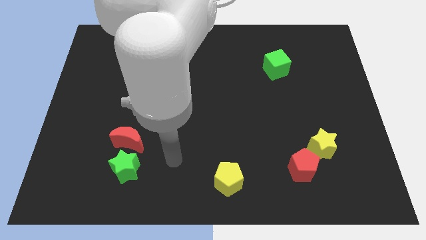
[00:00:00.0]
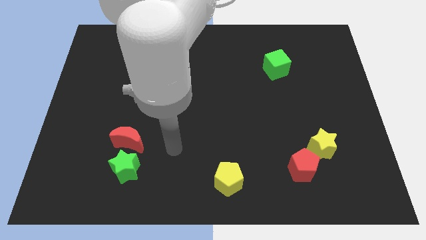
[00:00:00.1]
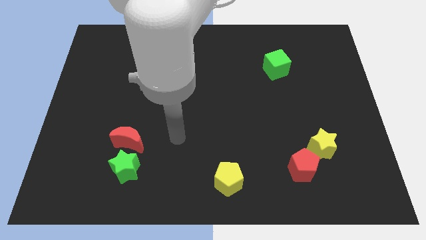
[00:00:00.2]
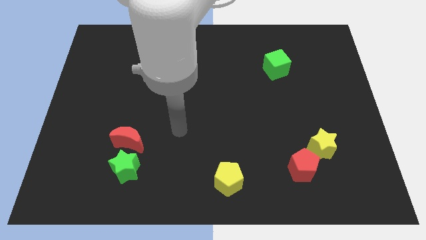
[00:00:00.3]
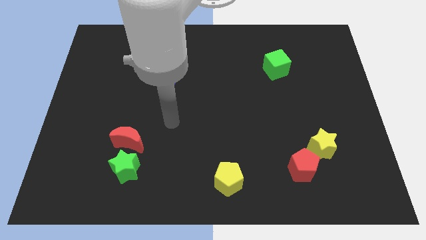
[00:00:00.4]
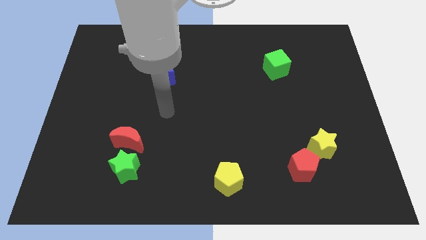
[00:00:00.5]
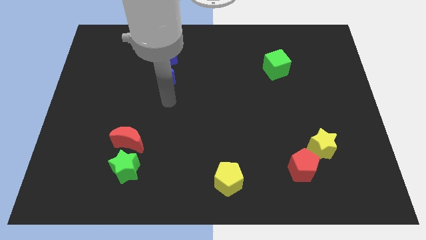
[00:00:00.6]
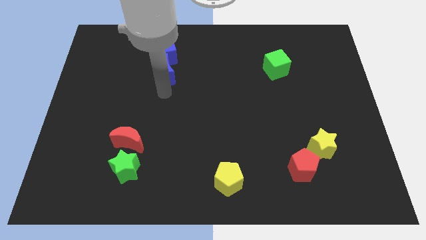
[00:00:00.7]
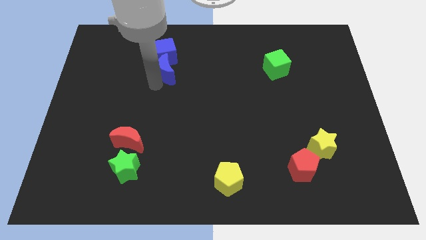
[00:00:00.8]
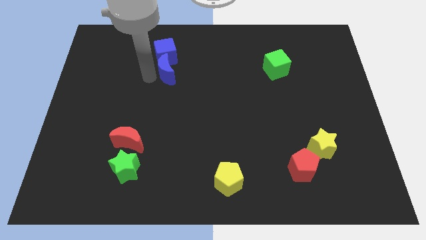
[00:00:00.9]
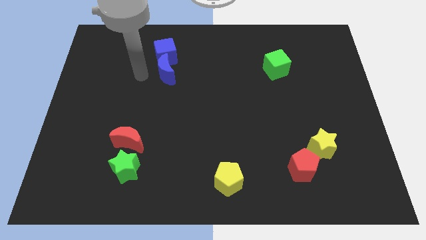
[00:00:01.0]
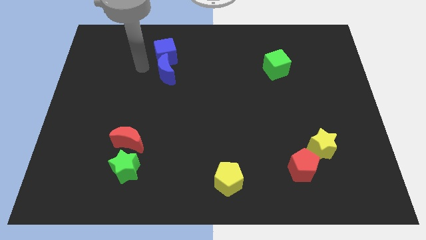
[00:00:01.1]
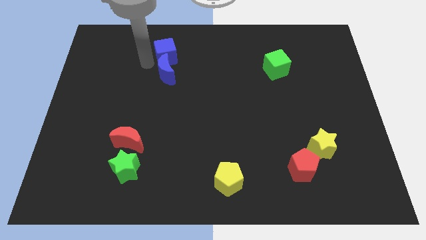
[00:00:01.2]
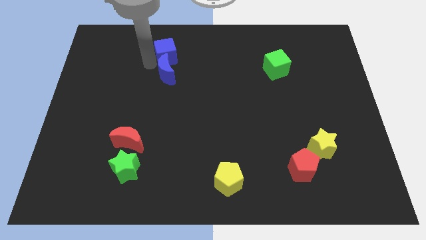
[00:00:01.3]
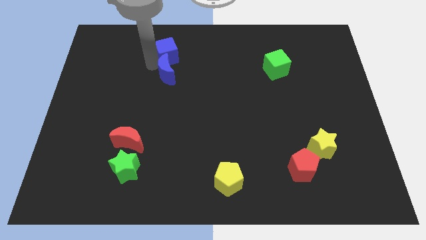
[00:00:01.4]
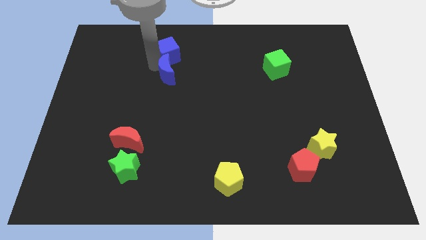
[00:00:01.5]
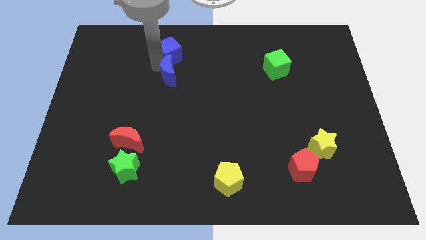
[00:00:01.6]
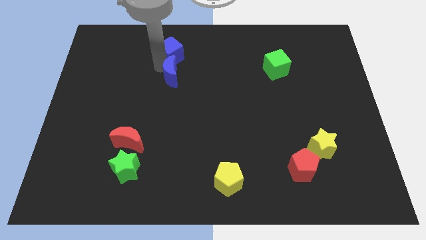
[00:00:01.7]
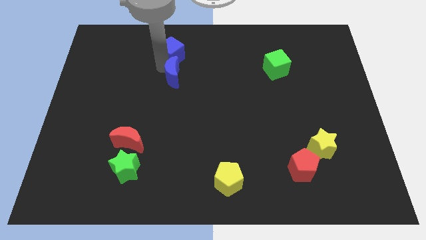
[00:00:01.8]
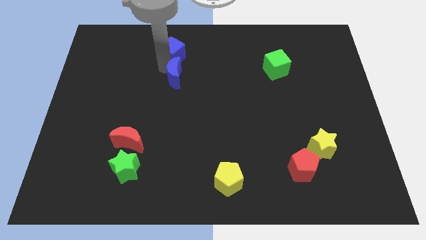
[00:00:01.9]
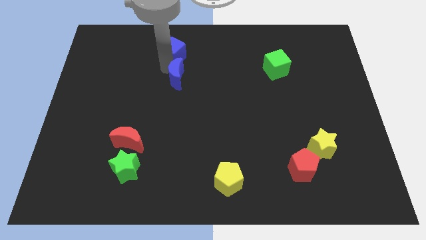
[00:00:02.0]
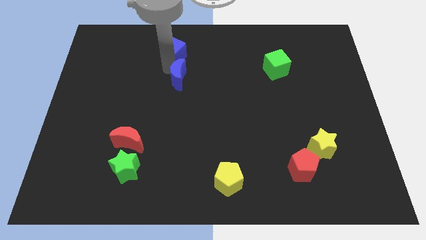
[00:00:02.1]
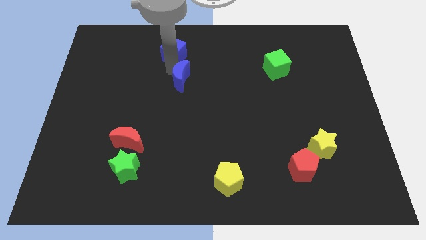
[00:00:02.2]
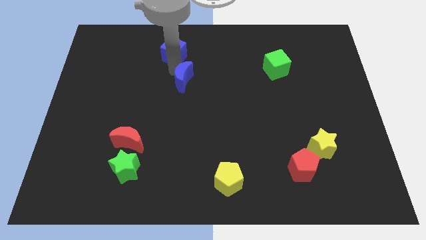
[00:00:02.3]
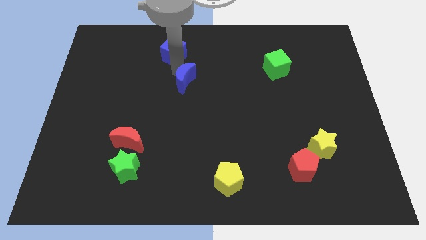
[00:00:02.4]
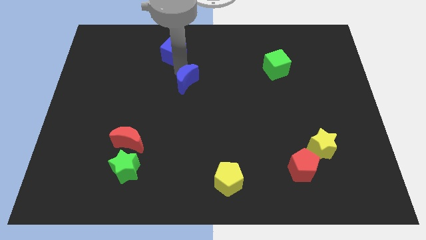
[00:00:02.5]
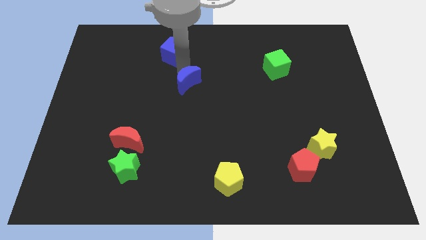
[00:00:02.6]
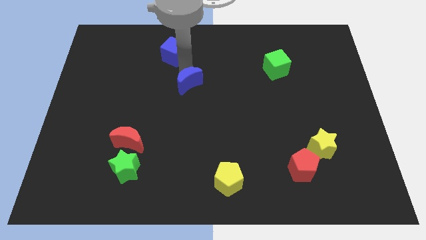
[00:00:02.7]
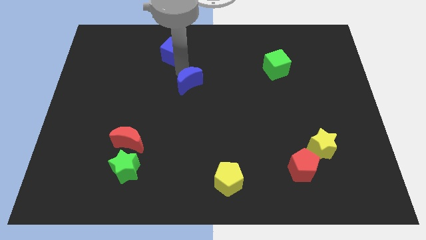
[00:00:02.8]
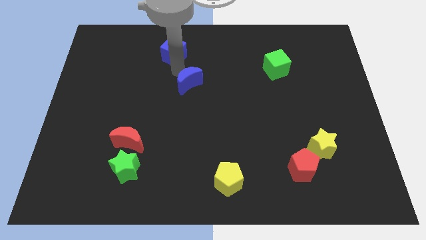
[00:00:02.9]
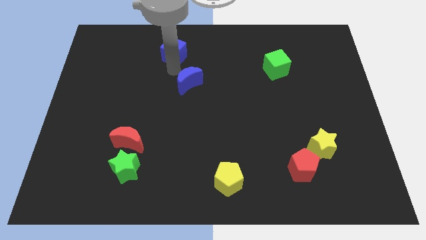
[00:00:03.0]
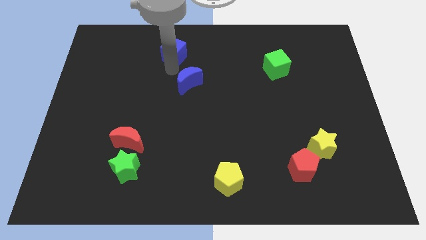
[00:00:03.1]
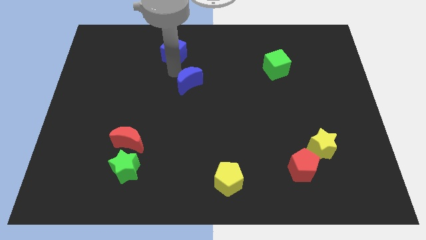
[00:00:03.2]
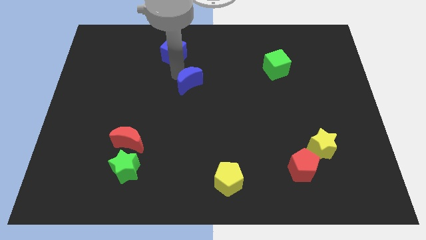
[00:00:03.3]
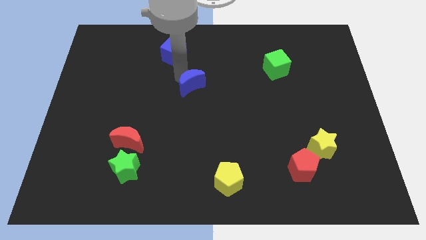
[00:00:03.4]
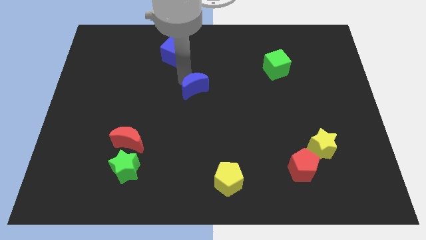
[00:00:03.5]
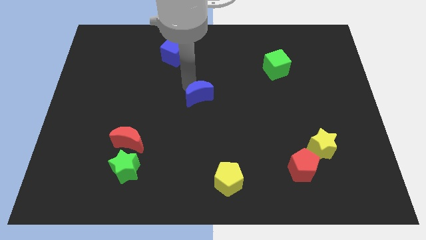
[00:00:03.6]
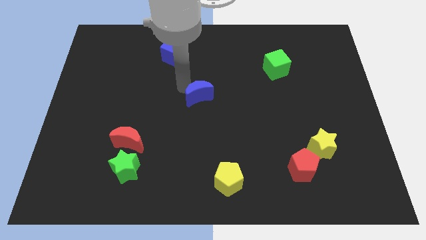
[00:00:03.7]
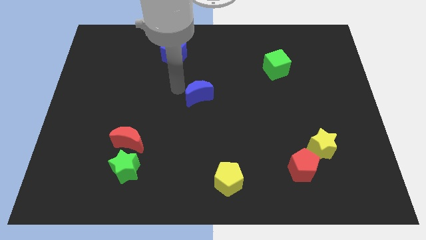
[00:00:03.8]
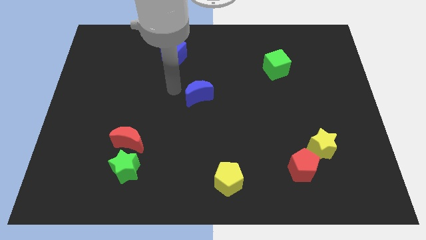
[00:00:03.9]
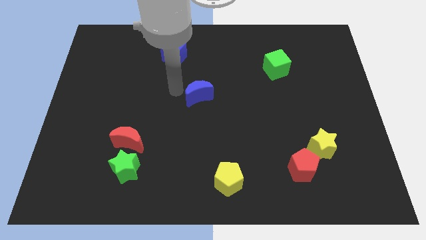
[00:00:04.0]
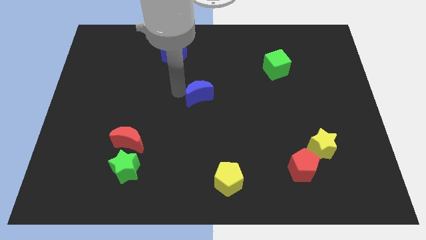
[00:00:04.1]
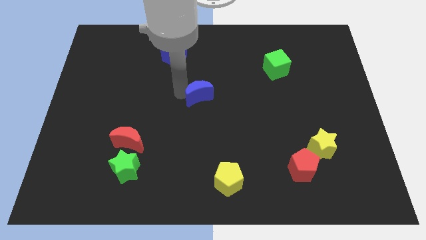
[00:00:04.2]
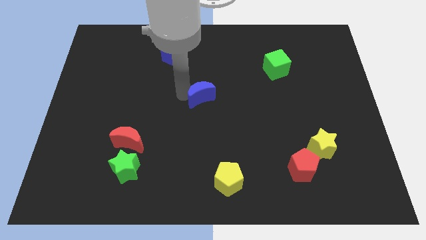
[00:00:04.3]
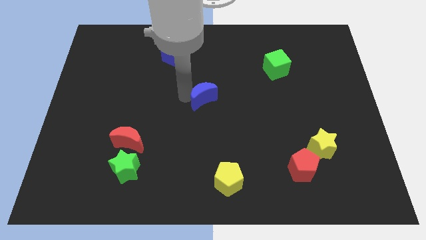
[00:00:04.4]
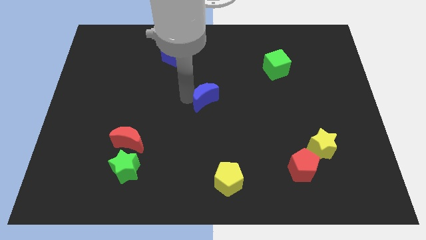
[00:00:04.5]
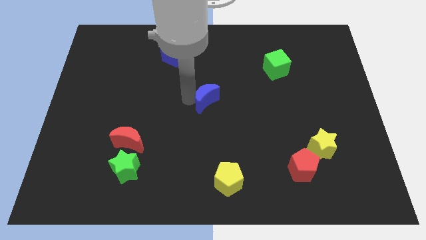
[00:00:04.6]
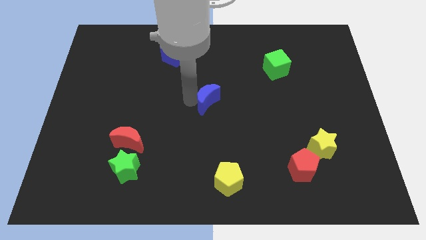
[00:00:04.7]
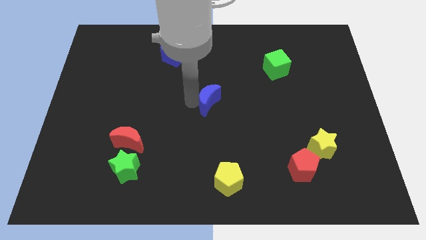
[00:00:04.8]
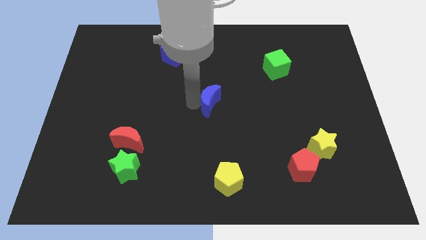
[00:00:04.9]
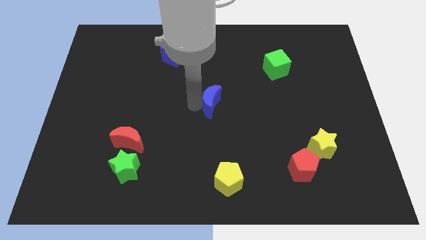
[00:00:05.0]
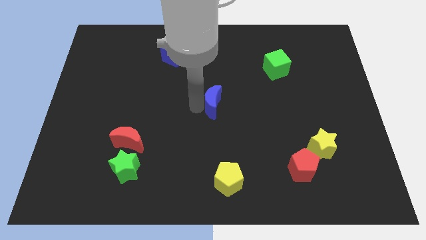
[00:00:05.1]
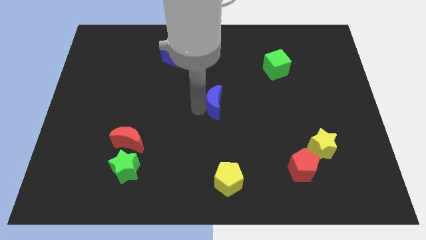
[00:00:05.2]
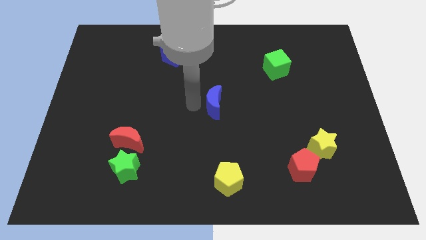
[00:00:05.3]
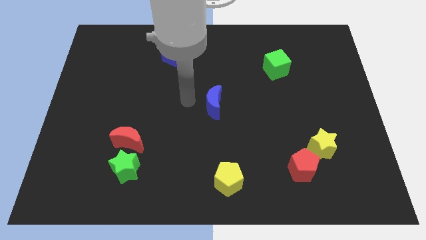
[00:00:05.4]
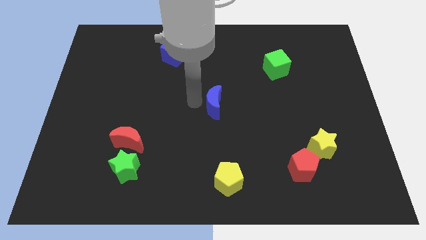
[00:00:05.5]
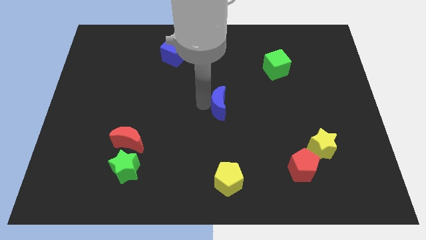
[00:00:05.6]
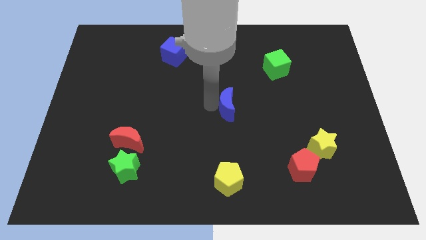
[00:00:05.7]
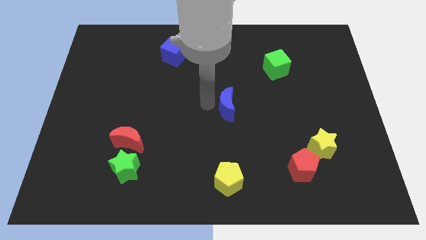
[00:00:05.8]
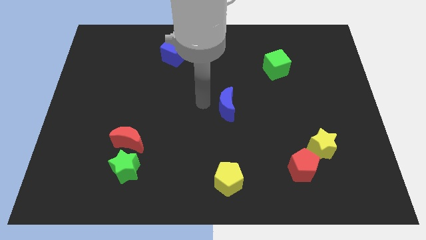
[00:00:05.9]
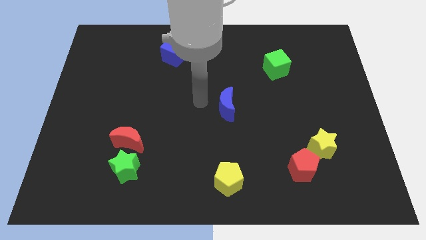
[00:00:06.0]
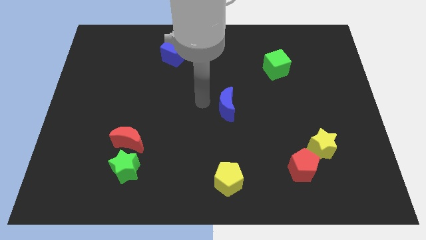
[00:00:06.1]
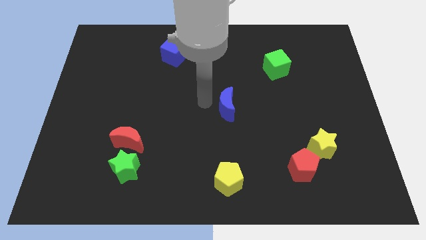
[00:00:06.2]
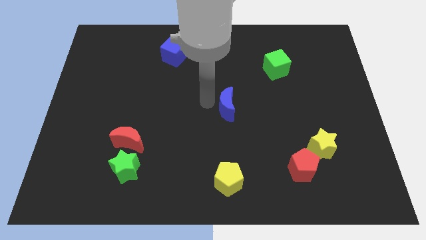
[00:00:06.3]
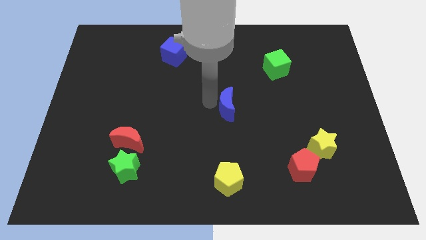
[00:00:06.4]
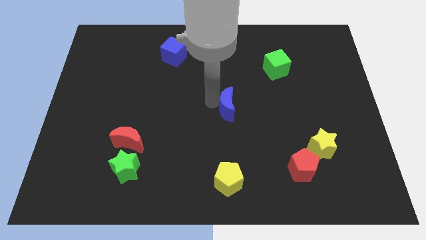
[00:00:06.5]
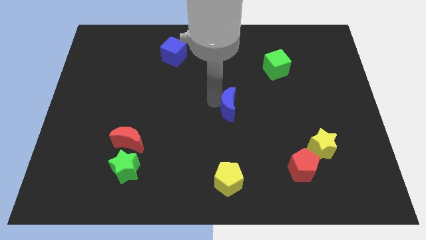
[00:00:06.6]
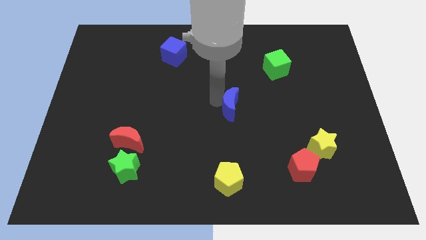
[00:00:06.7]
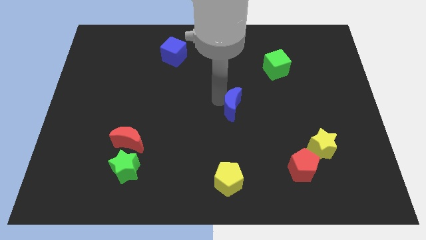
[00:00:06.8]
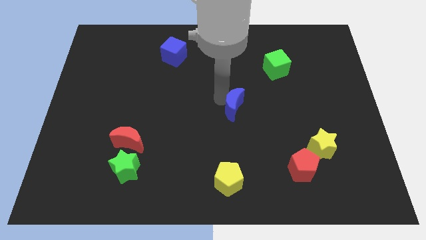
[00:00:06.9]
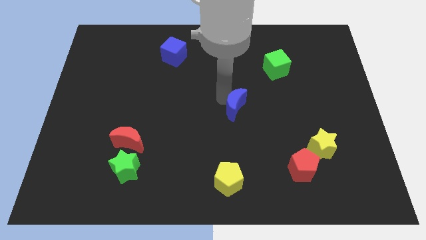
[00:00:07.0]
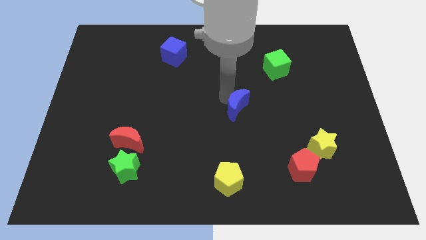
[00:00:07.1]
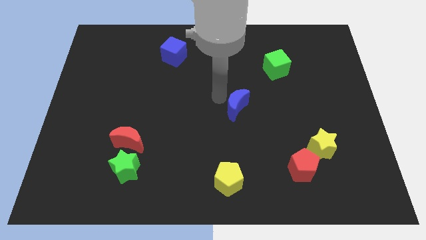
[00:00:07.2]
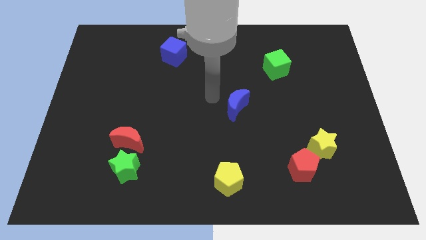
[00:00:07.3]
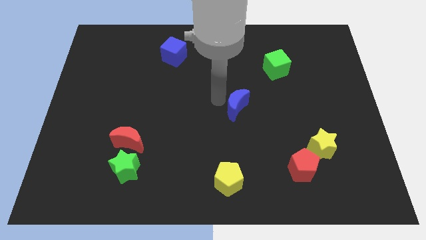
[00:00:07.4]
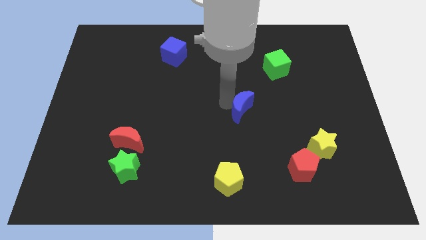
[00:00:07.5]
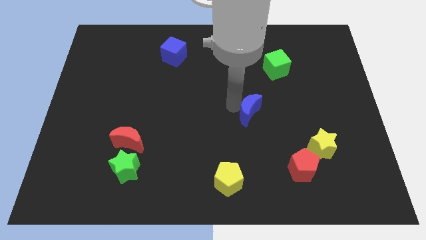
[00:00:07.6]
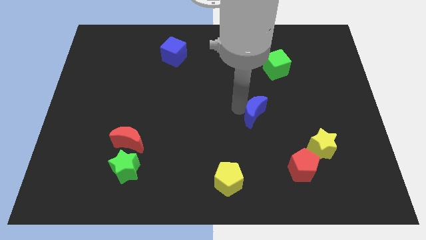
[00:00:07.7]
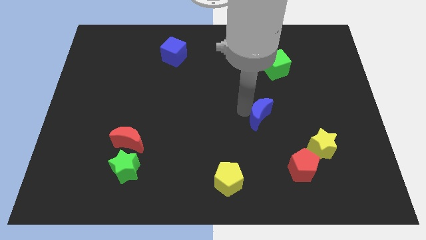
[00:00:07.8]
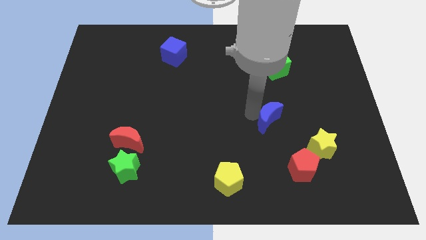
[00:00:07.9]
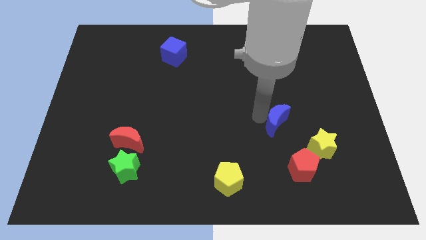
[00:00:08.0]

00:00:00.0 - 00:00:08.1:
slide the blue moon to the top side of the red pentagon
